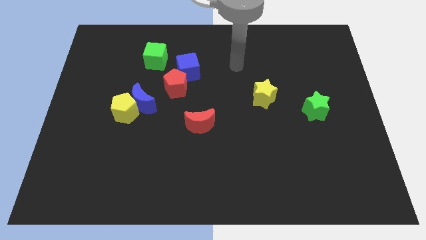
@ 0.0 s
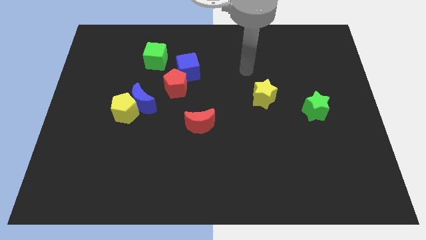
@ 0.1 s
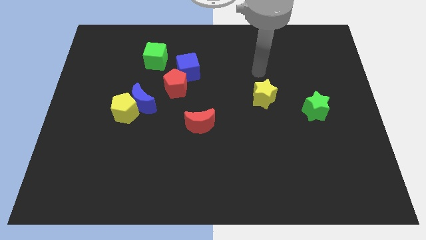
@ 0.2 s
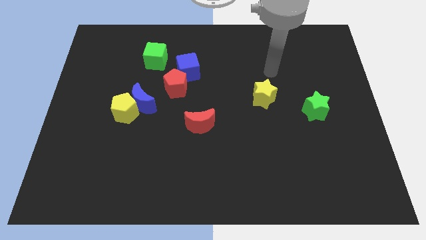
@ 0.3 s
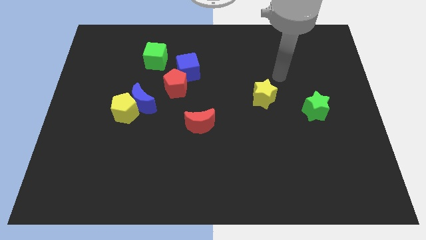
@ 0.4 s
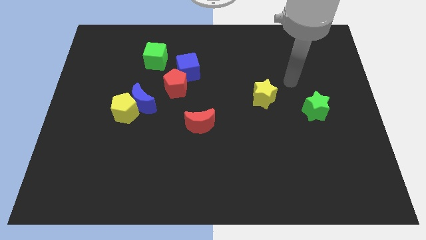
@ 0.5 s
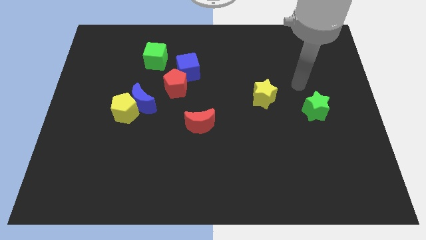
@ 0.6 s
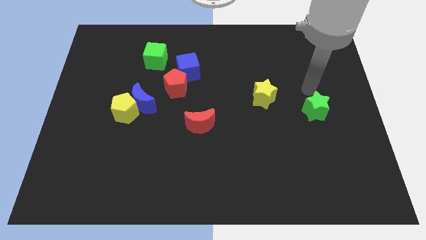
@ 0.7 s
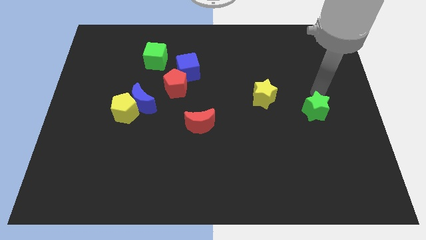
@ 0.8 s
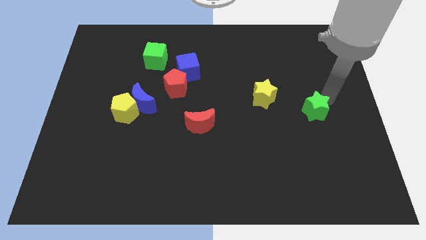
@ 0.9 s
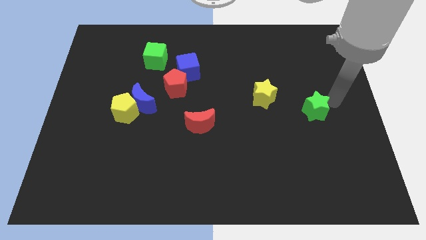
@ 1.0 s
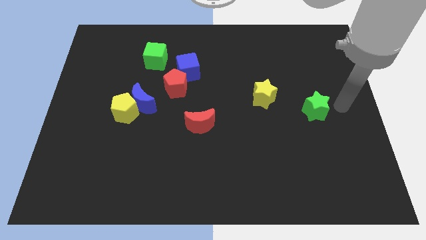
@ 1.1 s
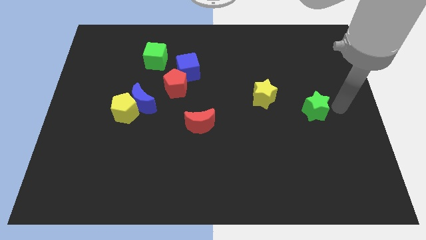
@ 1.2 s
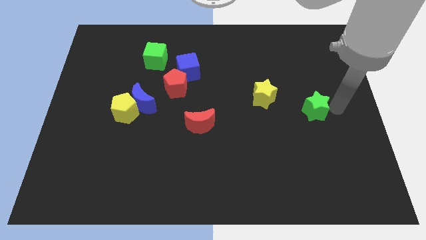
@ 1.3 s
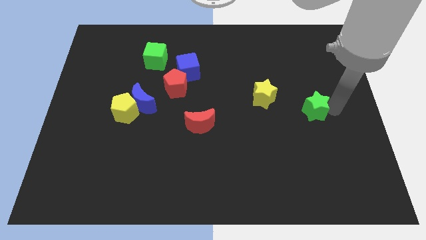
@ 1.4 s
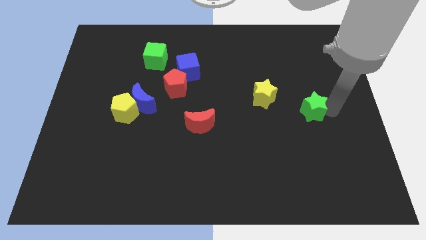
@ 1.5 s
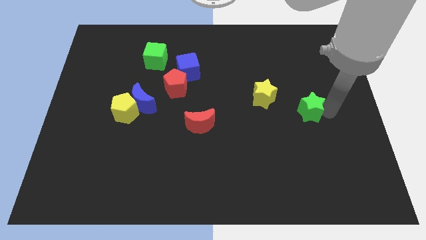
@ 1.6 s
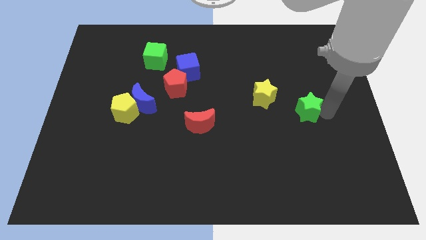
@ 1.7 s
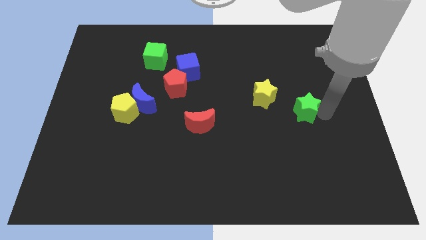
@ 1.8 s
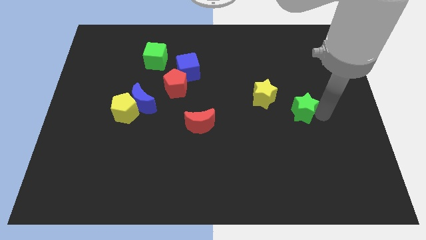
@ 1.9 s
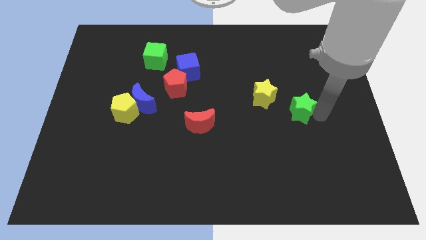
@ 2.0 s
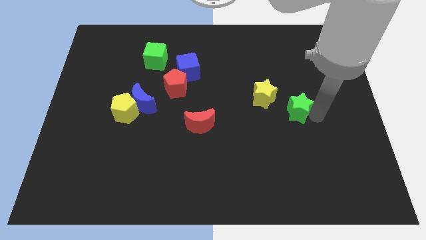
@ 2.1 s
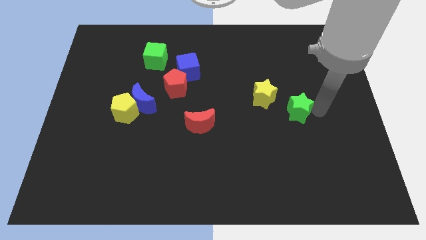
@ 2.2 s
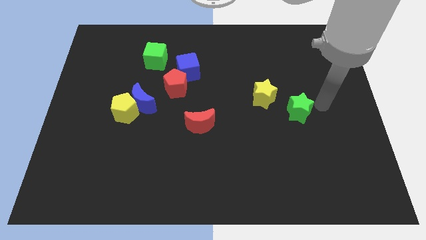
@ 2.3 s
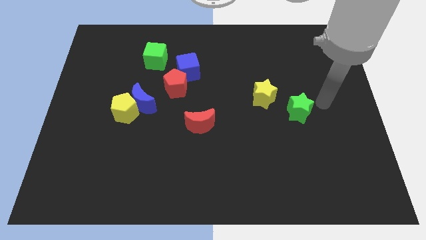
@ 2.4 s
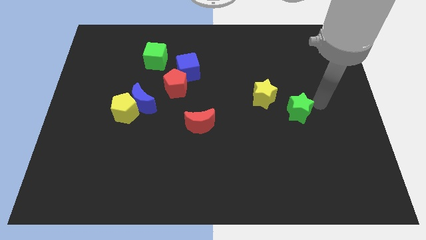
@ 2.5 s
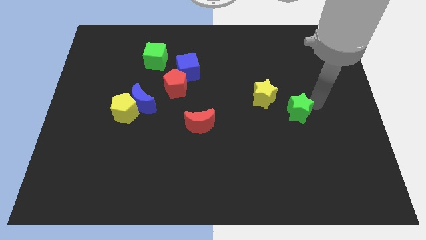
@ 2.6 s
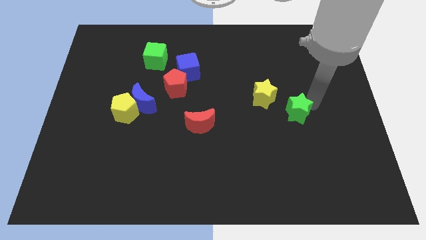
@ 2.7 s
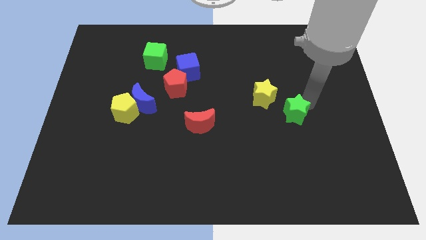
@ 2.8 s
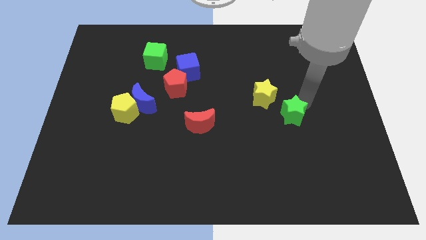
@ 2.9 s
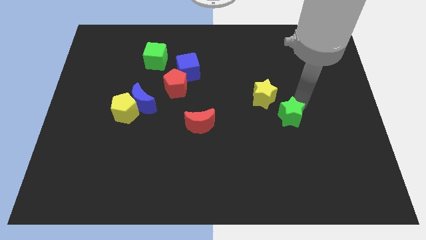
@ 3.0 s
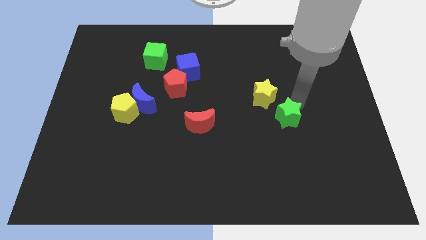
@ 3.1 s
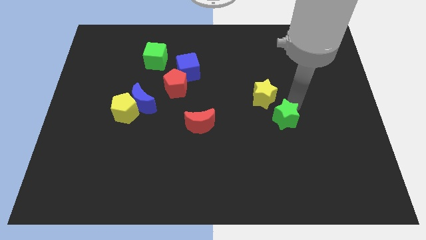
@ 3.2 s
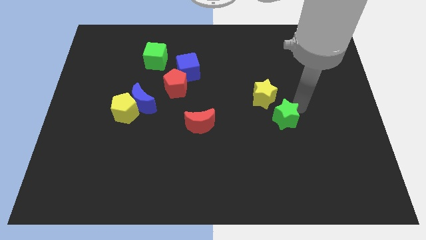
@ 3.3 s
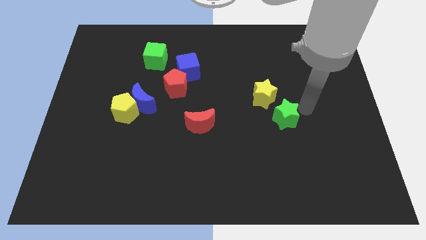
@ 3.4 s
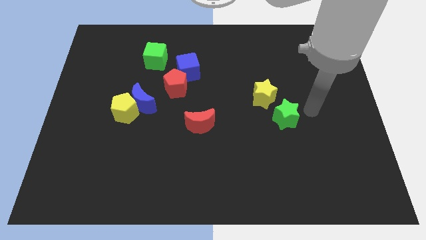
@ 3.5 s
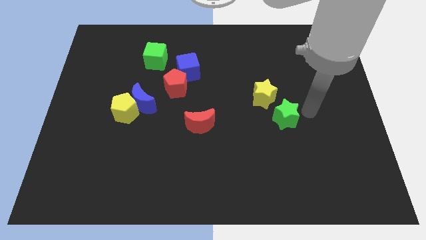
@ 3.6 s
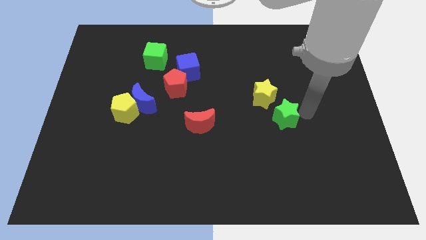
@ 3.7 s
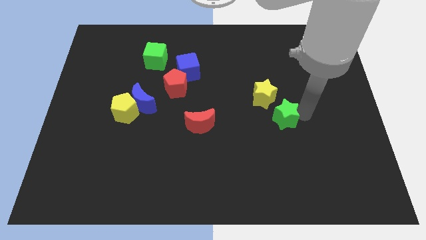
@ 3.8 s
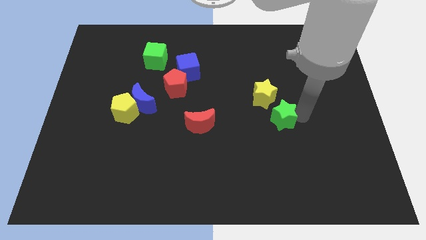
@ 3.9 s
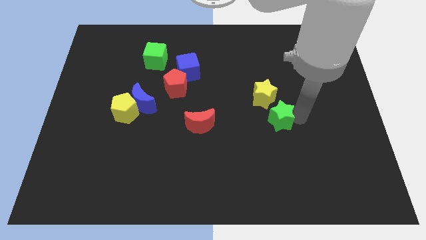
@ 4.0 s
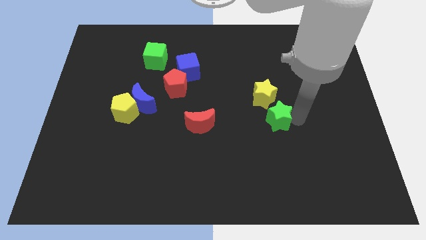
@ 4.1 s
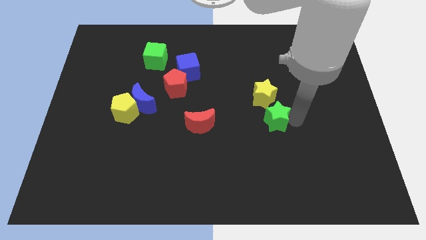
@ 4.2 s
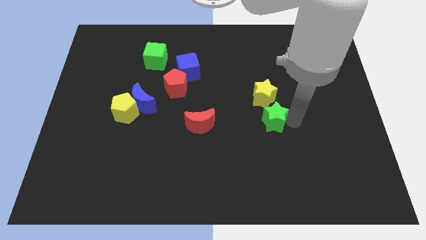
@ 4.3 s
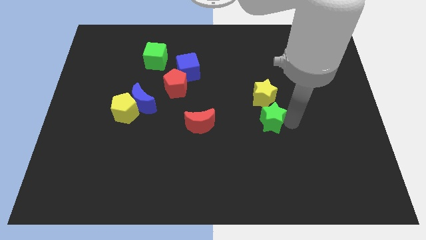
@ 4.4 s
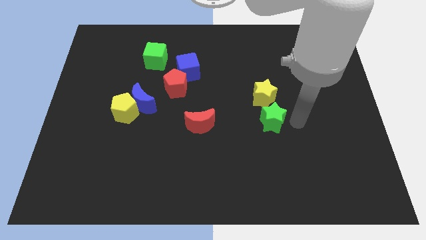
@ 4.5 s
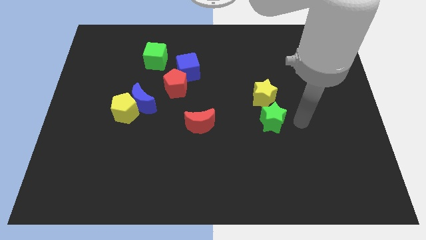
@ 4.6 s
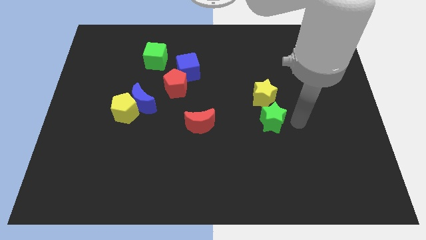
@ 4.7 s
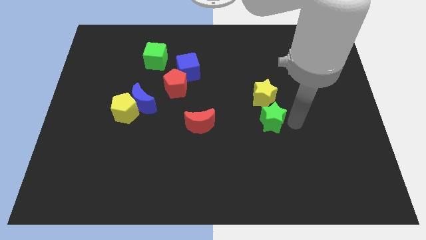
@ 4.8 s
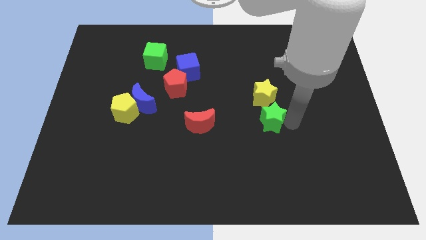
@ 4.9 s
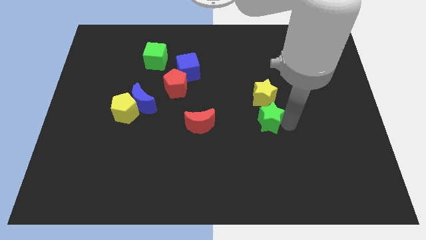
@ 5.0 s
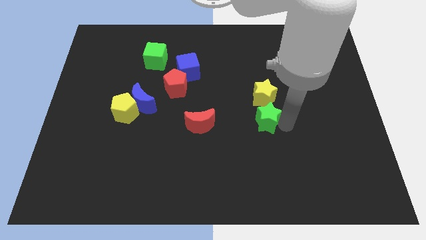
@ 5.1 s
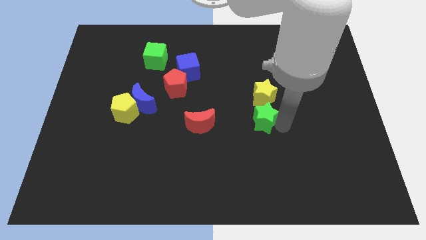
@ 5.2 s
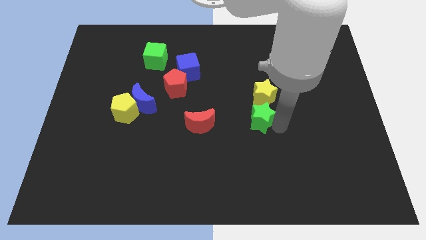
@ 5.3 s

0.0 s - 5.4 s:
slide the green star to the center
